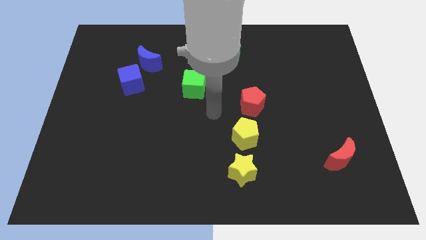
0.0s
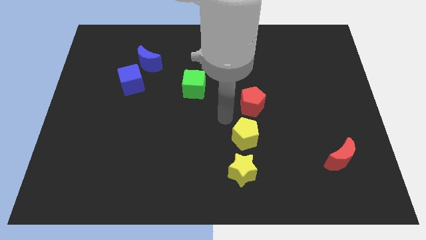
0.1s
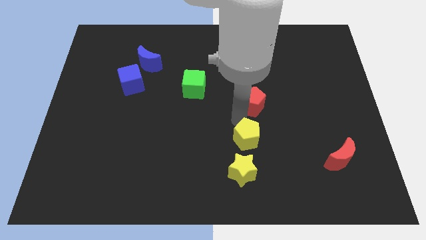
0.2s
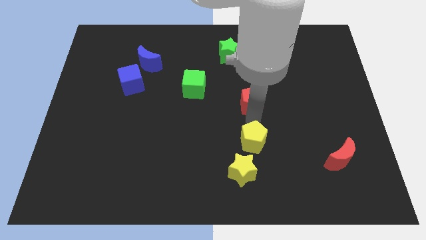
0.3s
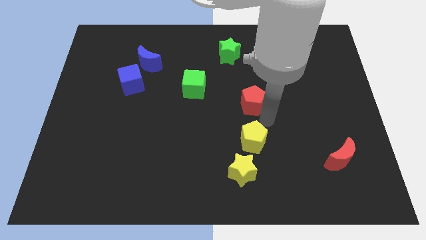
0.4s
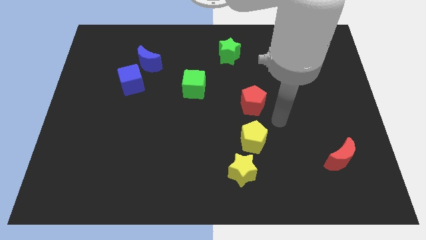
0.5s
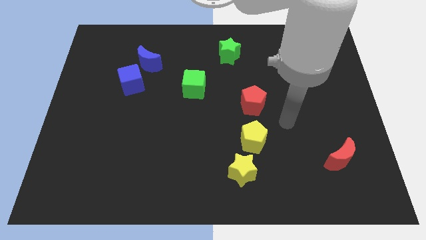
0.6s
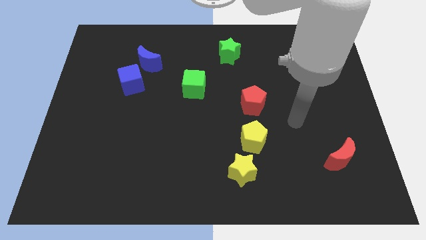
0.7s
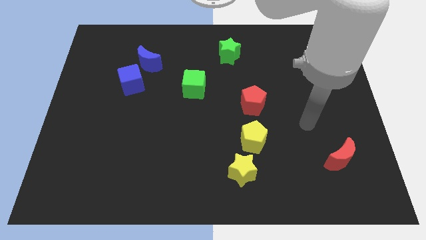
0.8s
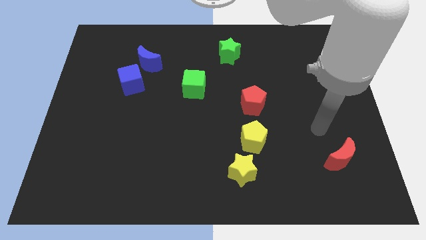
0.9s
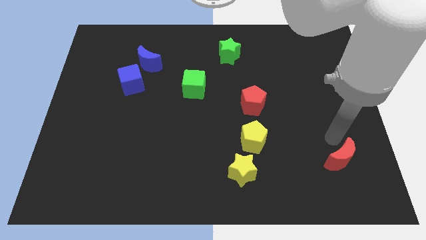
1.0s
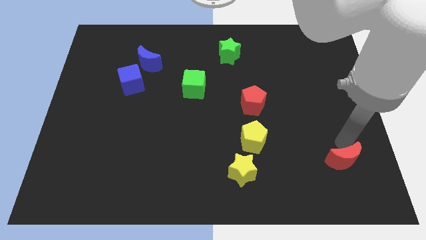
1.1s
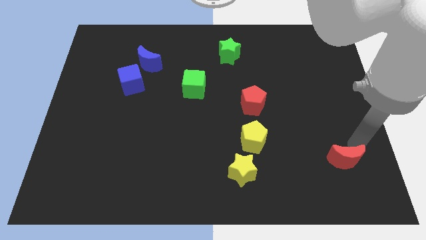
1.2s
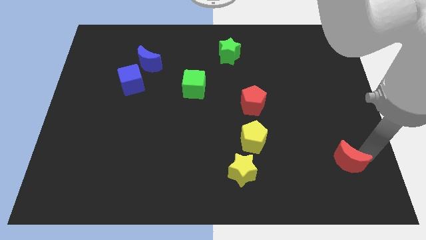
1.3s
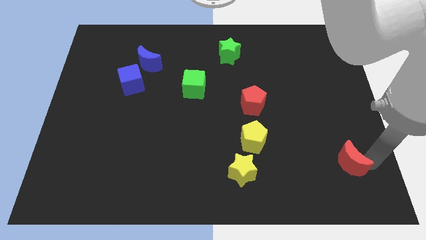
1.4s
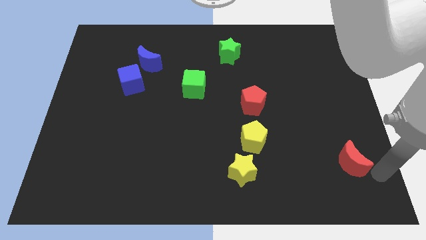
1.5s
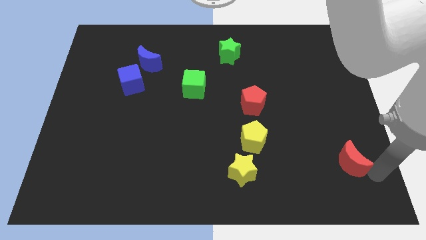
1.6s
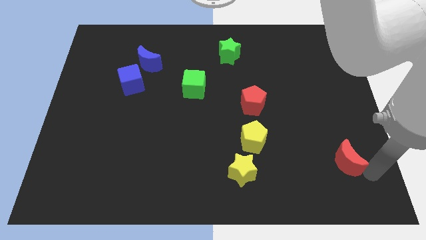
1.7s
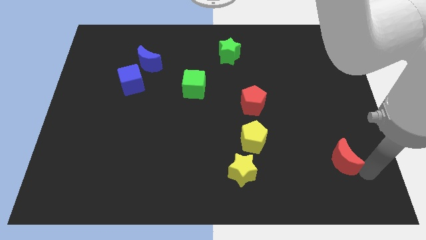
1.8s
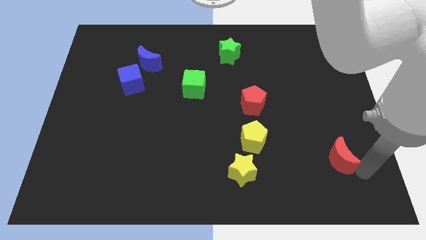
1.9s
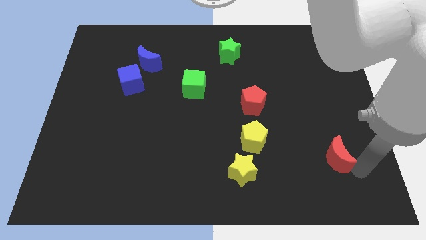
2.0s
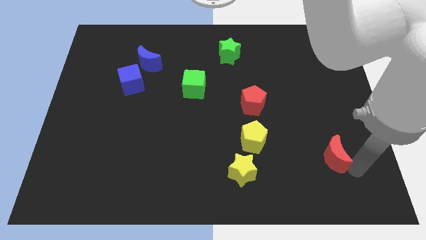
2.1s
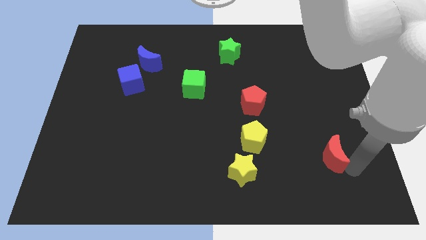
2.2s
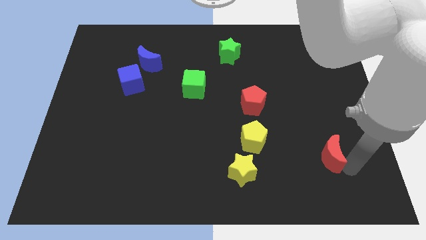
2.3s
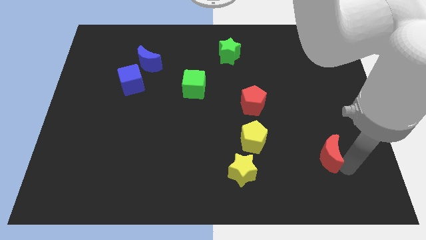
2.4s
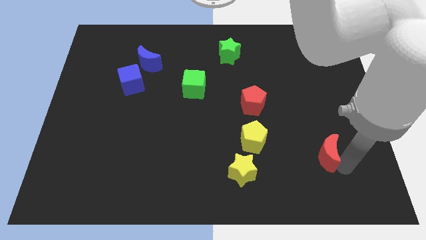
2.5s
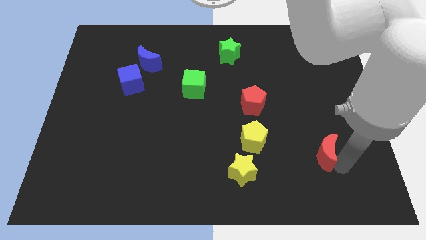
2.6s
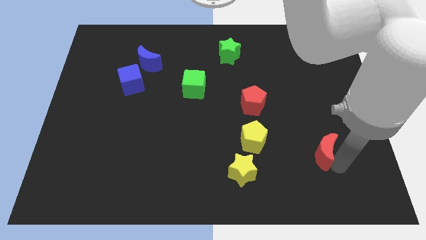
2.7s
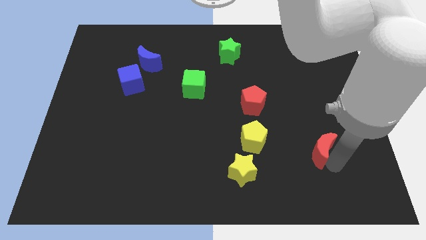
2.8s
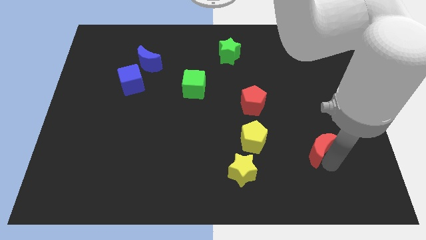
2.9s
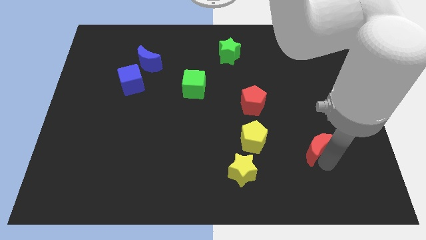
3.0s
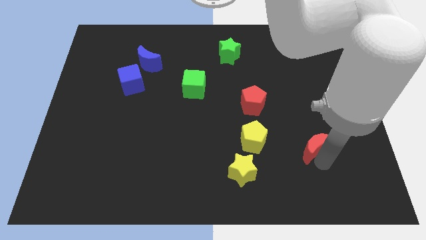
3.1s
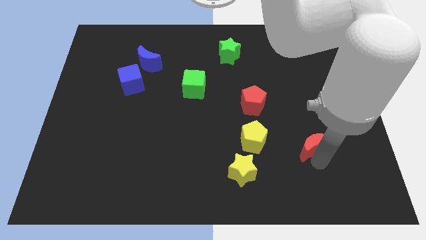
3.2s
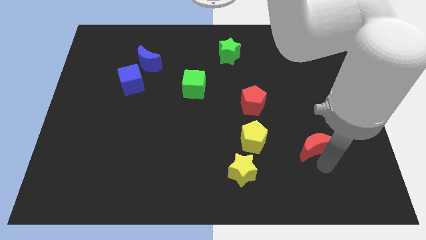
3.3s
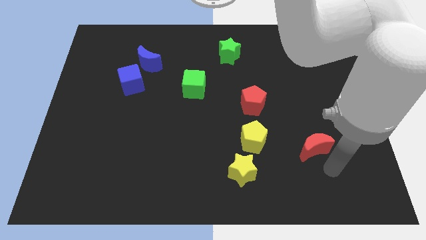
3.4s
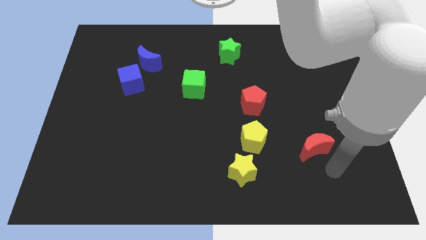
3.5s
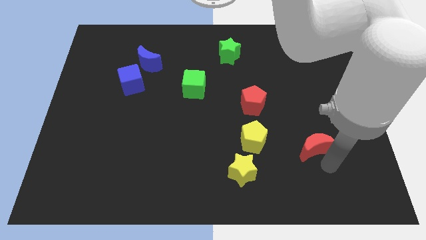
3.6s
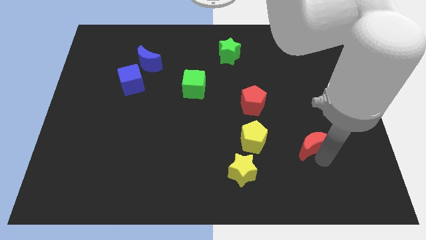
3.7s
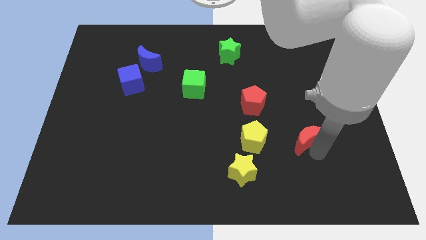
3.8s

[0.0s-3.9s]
slide the red moon diagonally upwards and left slightly

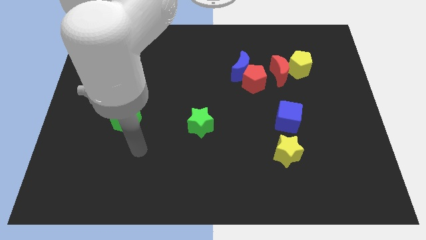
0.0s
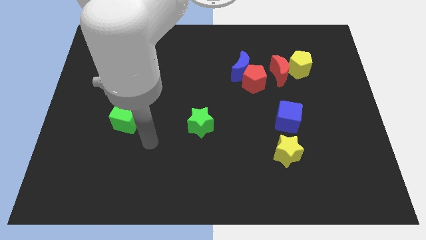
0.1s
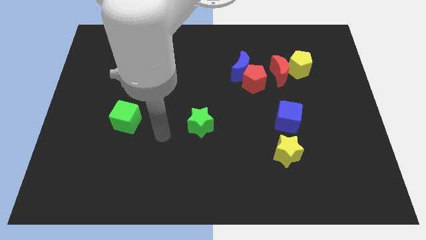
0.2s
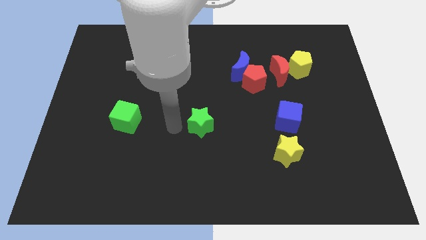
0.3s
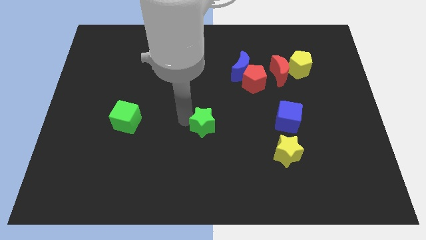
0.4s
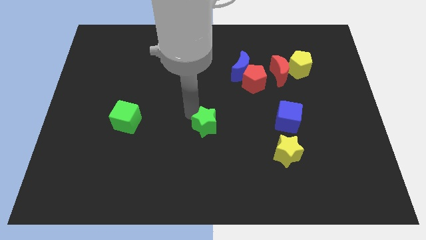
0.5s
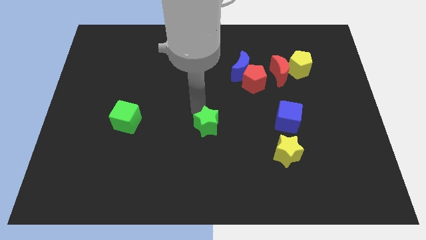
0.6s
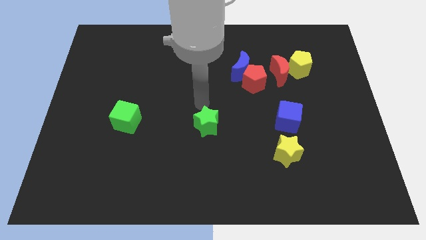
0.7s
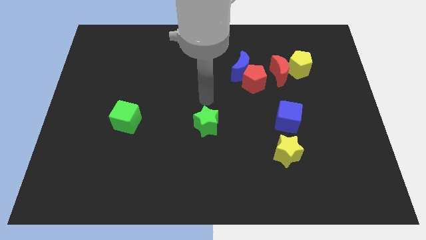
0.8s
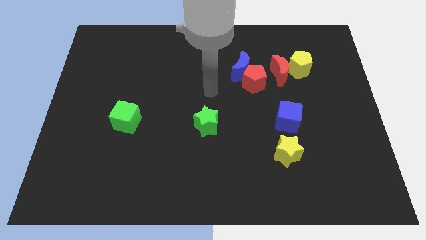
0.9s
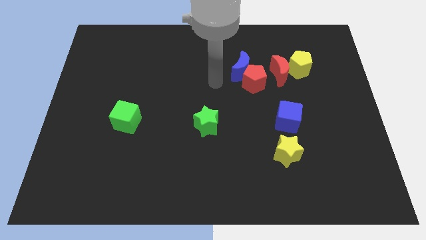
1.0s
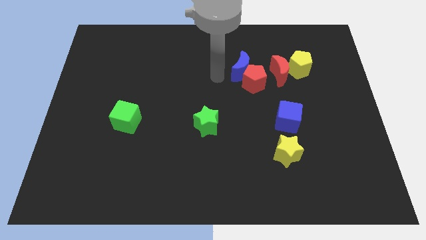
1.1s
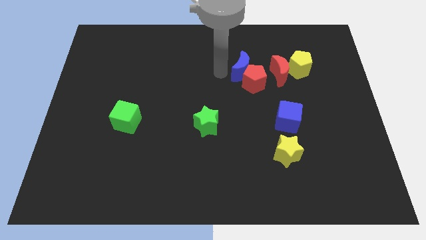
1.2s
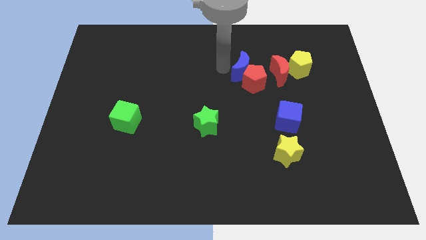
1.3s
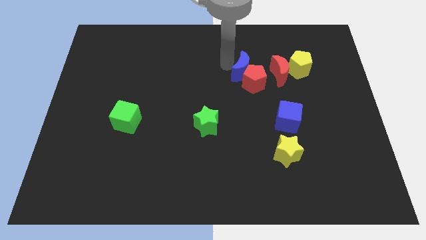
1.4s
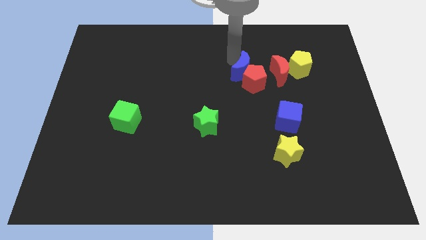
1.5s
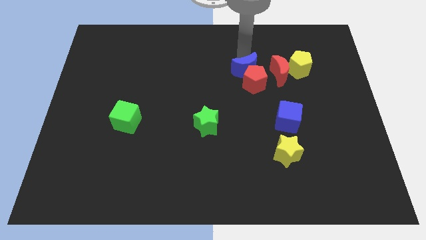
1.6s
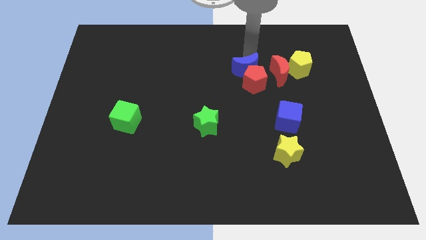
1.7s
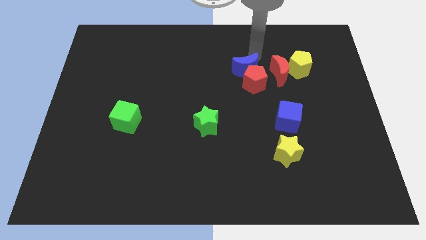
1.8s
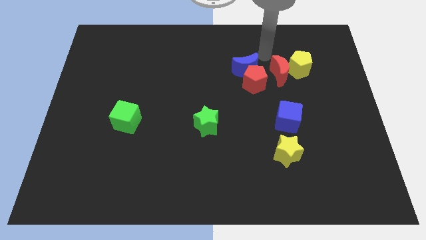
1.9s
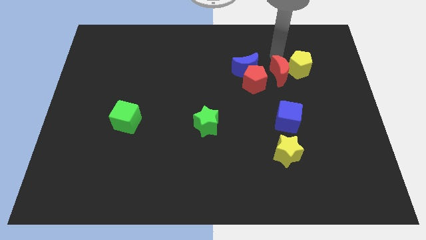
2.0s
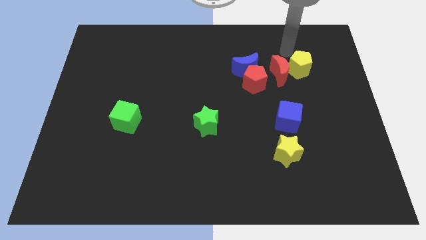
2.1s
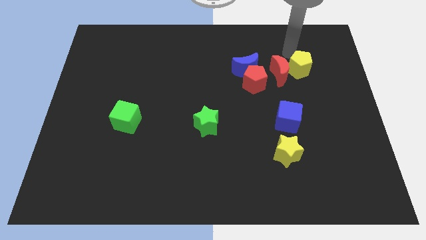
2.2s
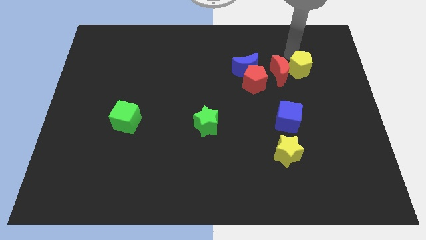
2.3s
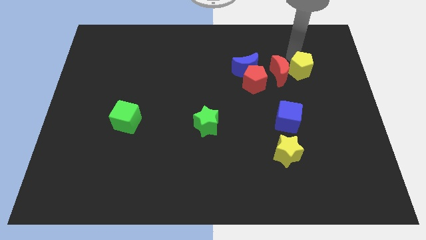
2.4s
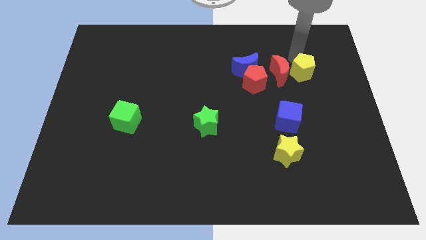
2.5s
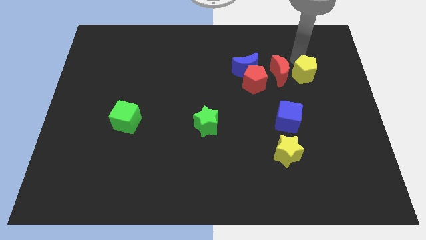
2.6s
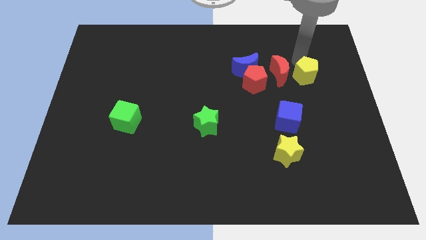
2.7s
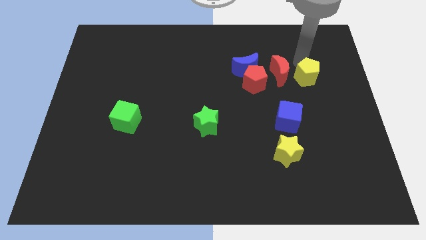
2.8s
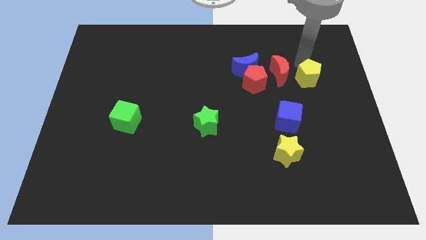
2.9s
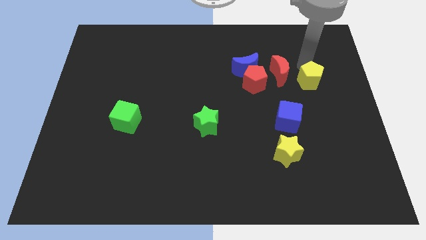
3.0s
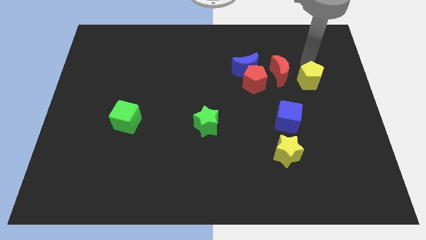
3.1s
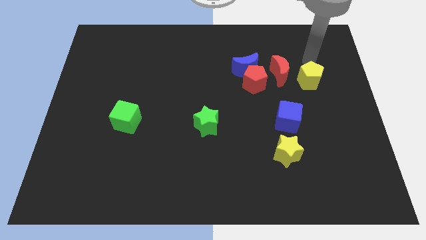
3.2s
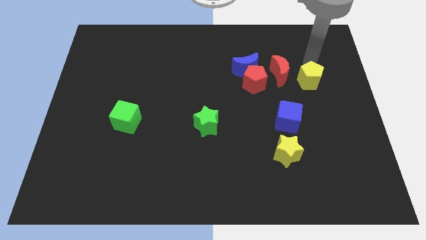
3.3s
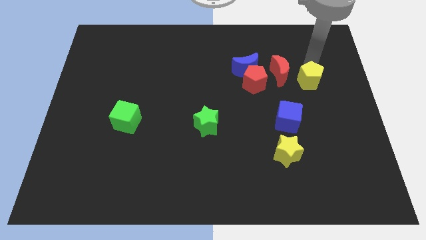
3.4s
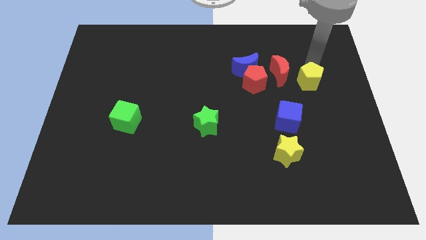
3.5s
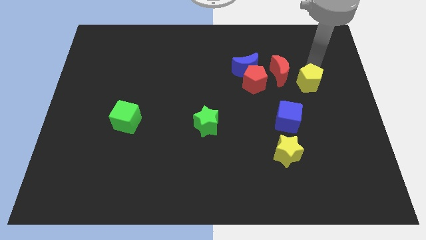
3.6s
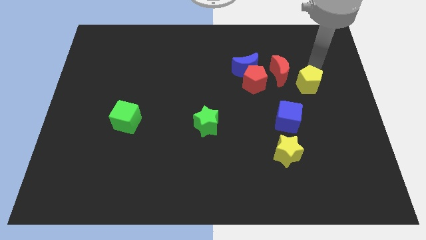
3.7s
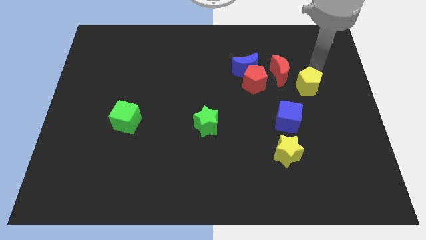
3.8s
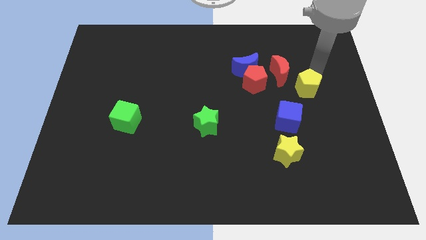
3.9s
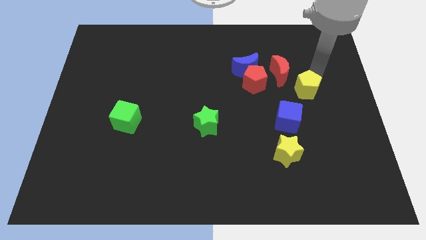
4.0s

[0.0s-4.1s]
slide the yellow pentagon downwards a little bit
